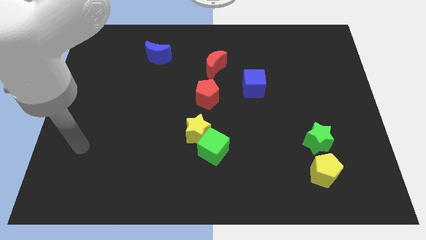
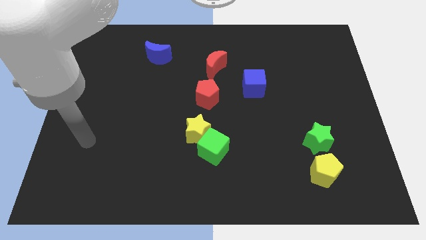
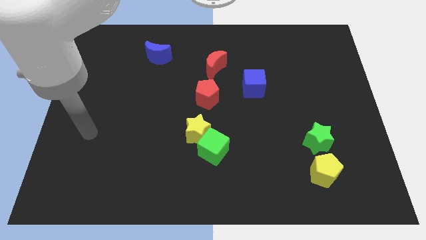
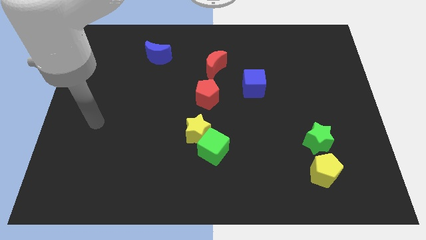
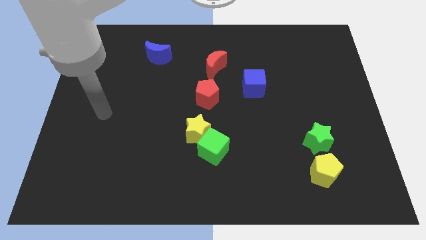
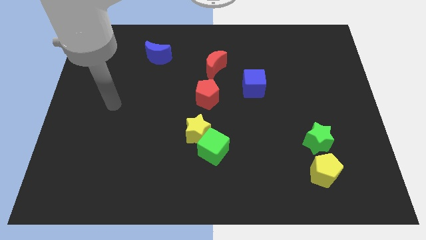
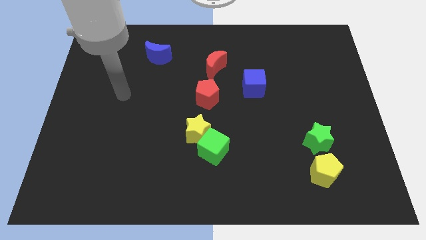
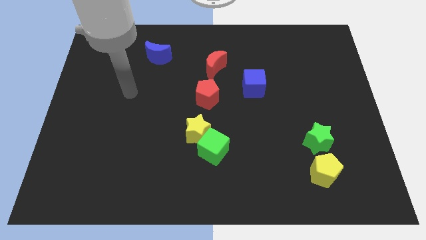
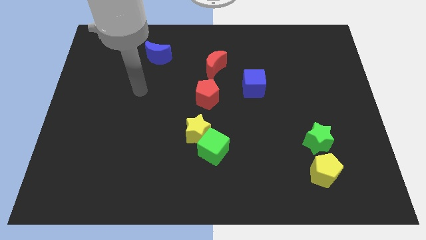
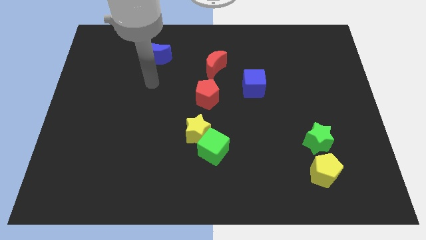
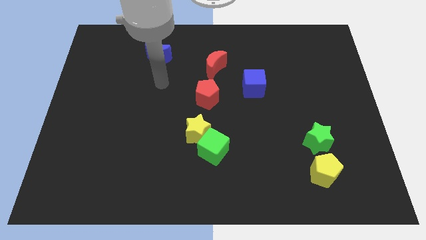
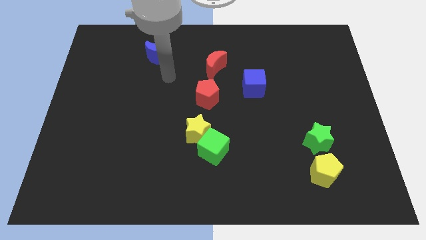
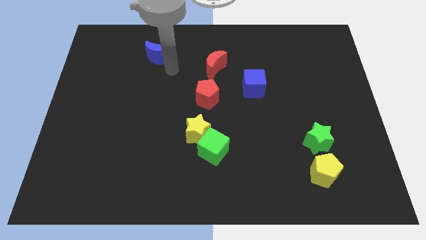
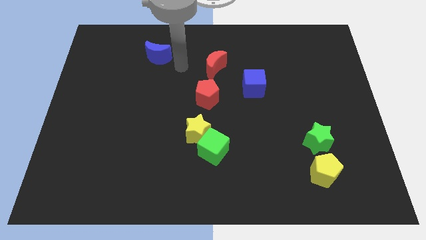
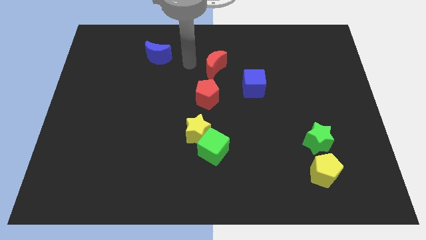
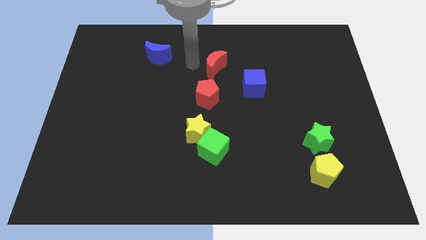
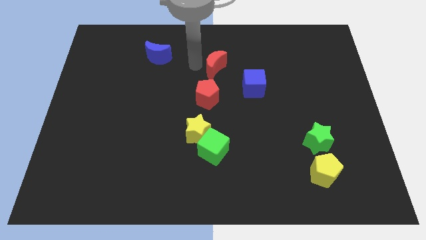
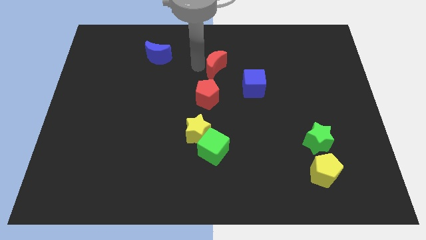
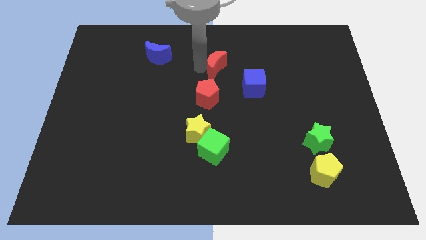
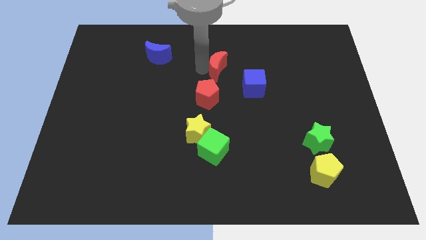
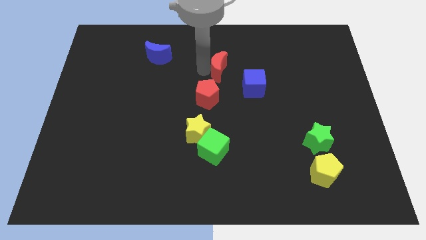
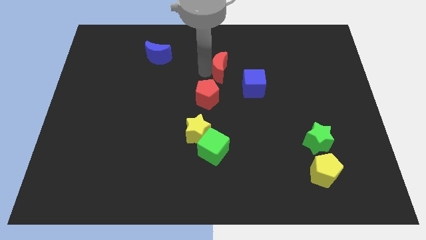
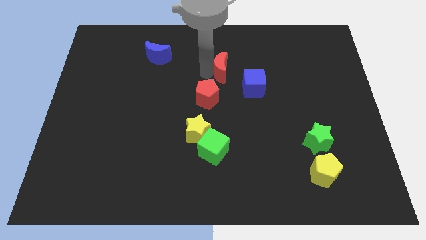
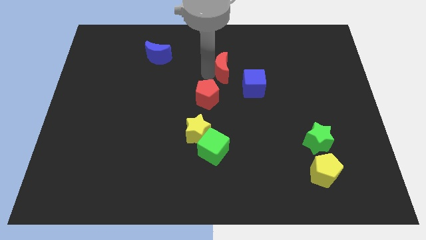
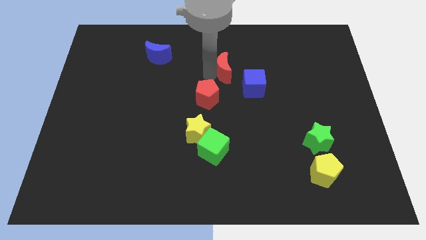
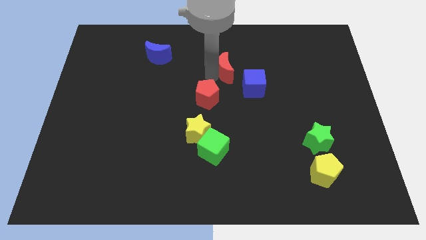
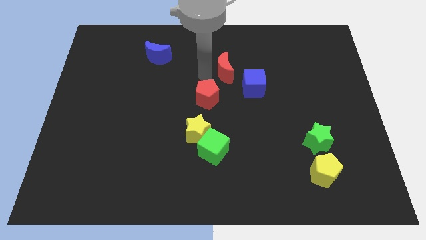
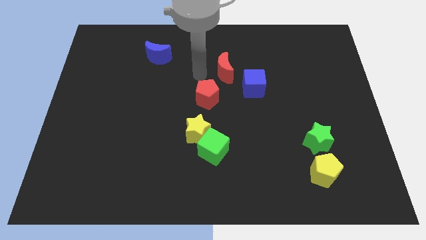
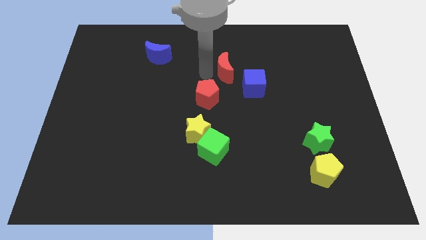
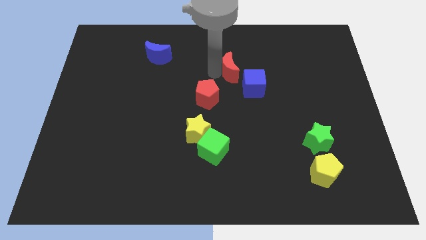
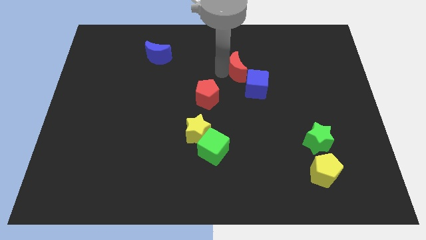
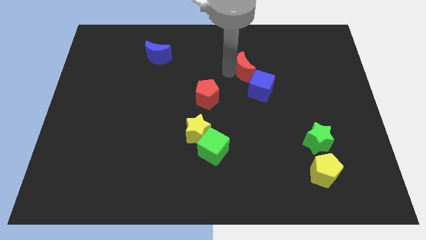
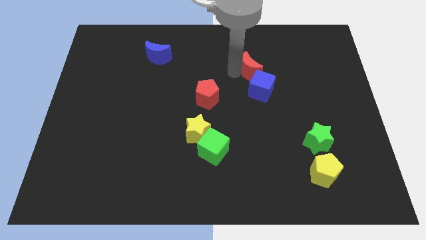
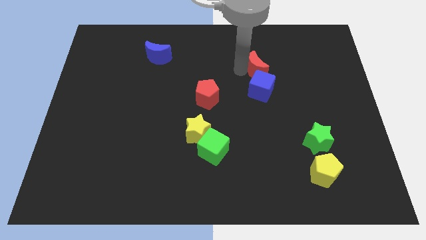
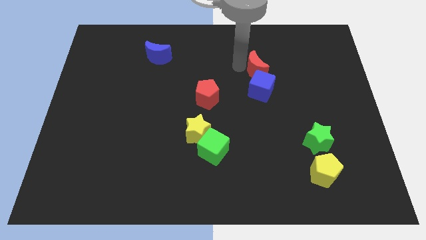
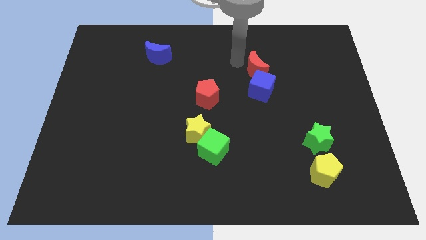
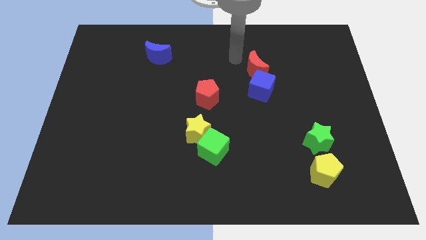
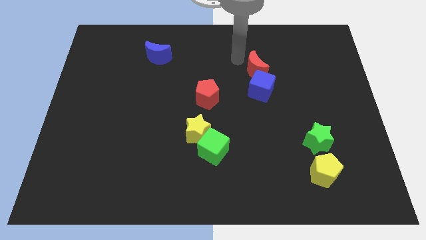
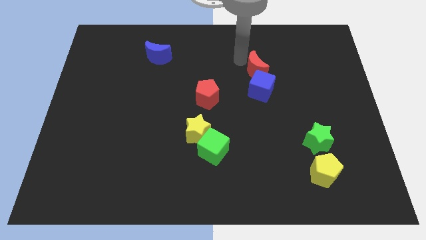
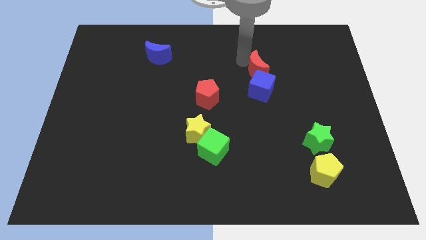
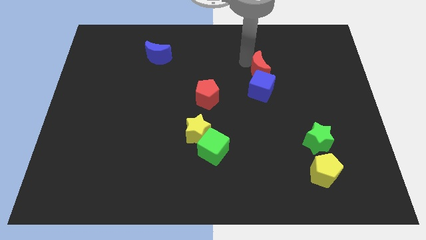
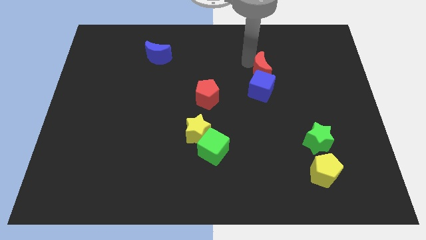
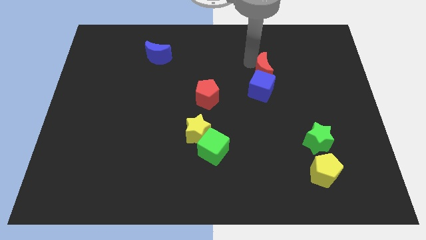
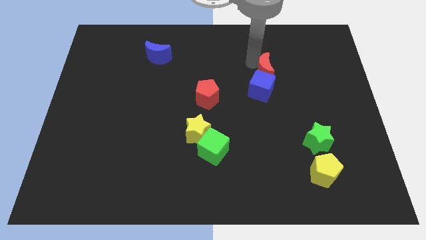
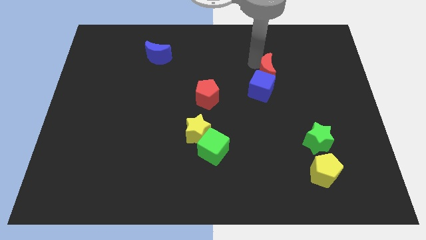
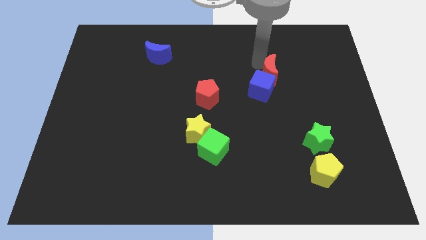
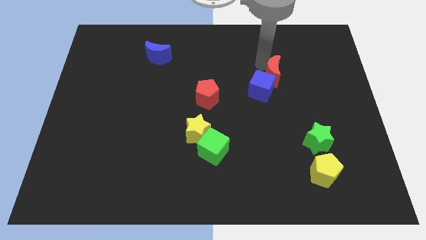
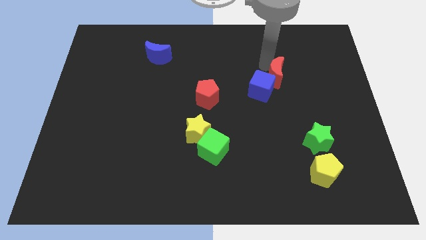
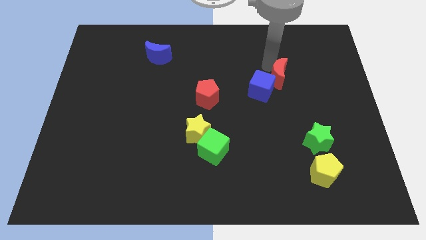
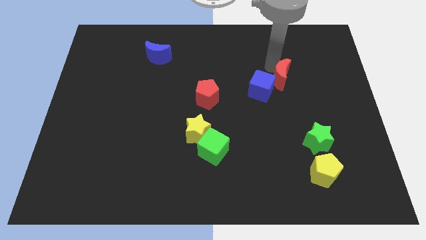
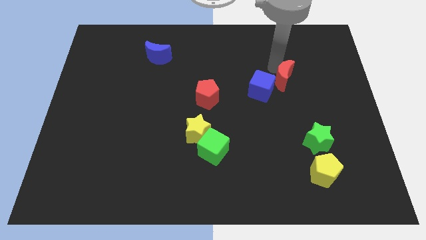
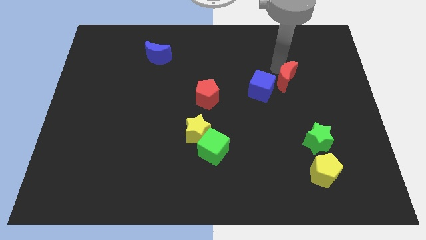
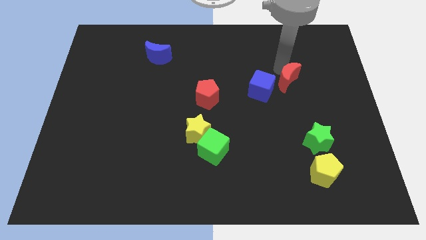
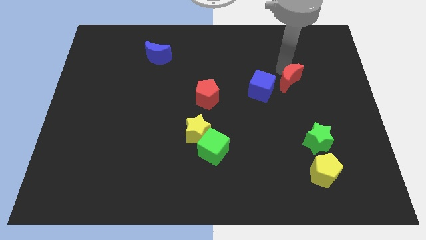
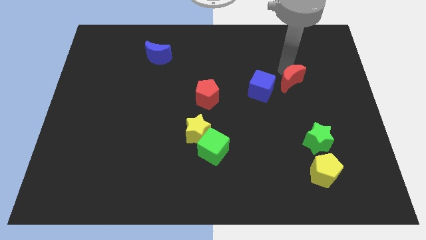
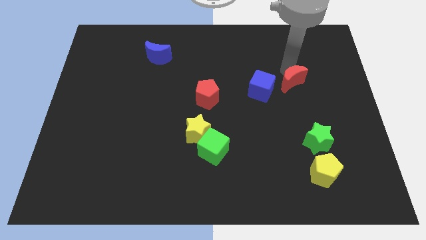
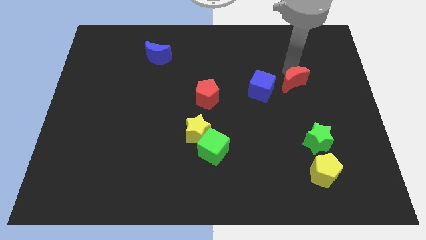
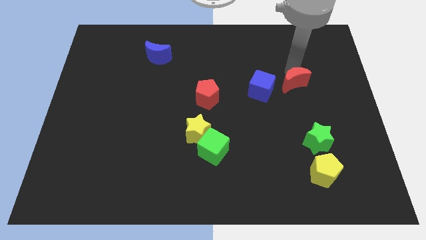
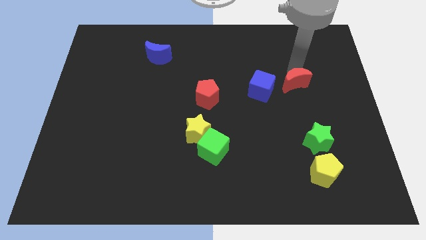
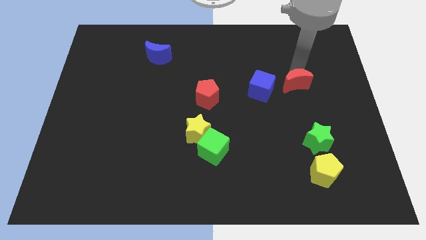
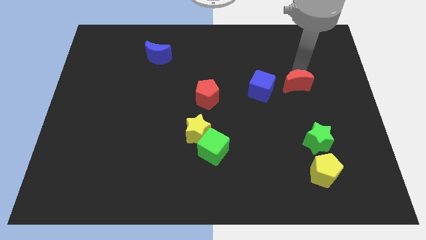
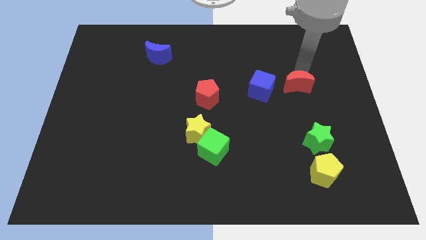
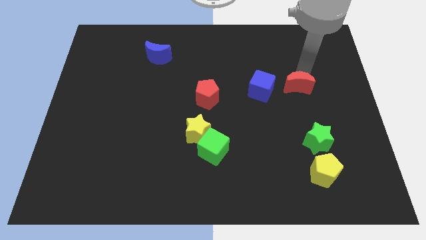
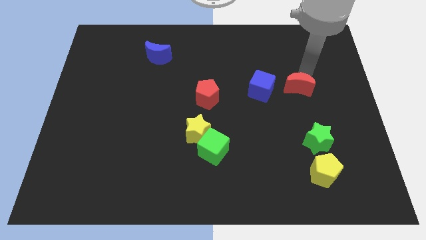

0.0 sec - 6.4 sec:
put the red moon above the green star

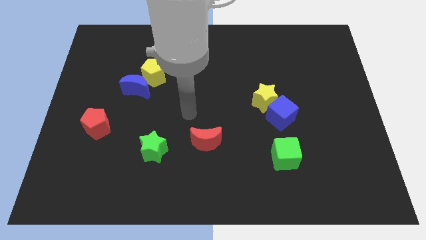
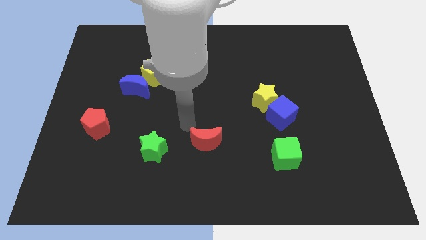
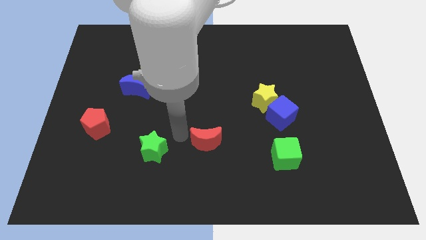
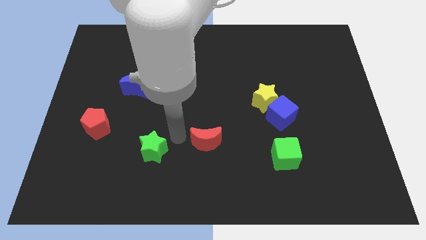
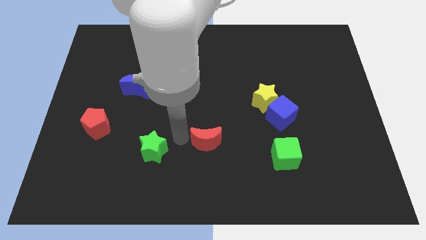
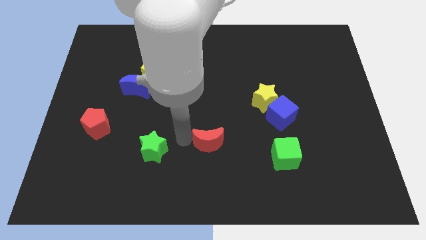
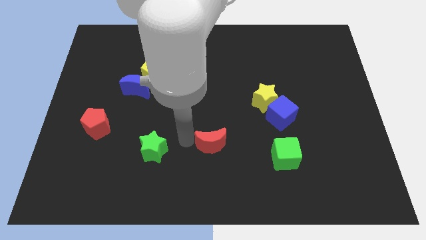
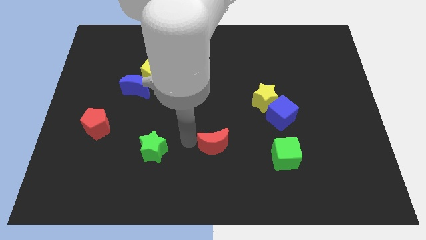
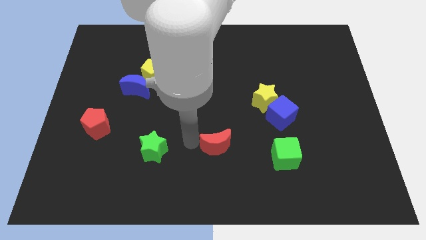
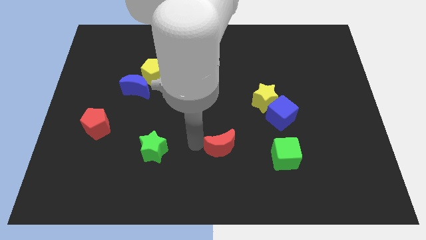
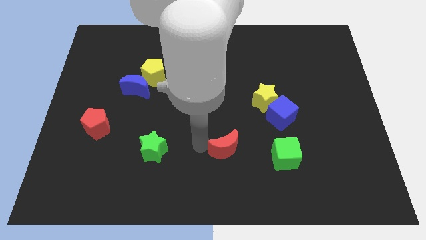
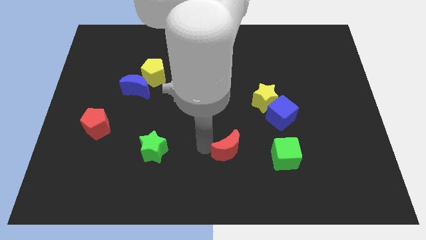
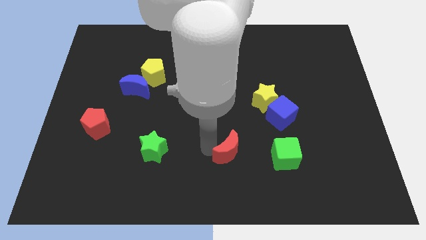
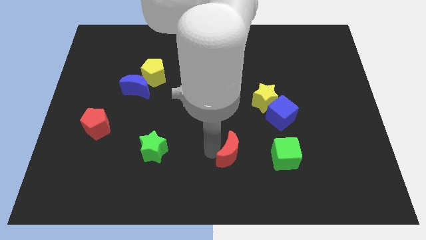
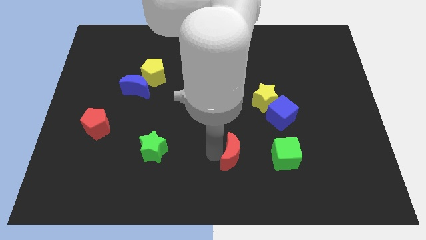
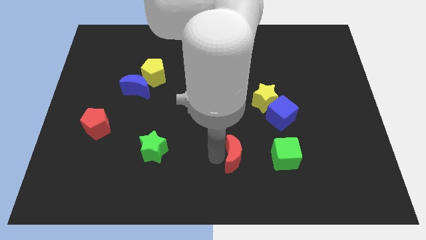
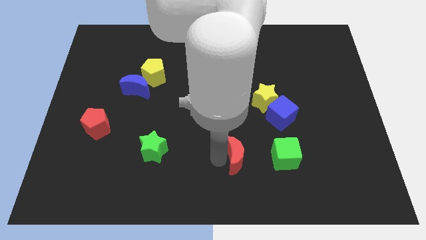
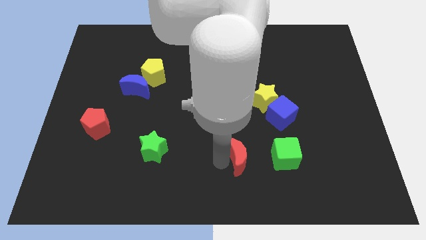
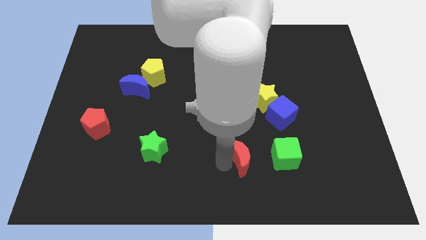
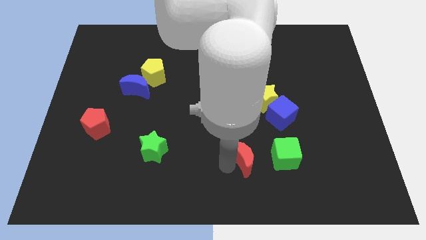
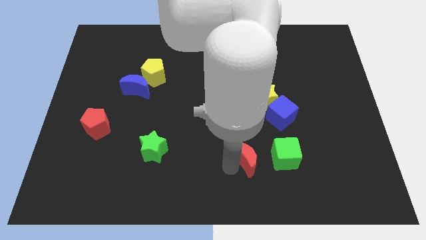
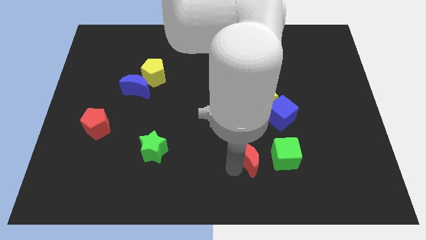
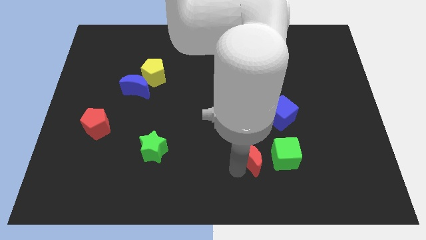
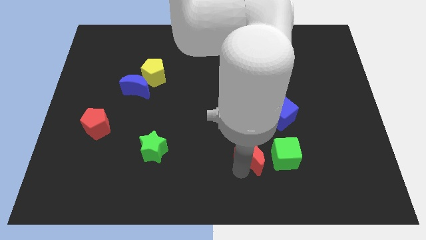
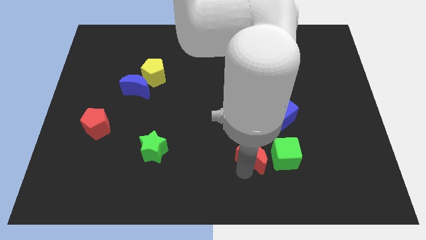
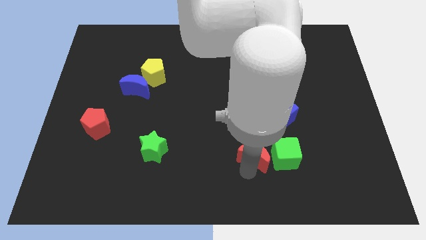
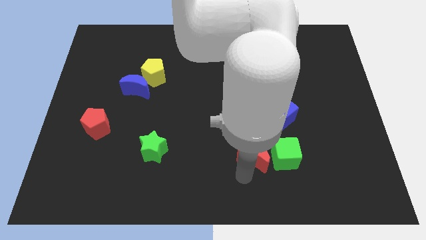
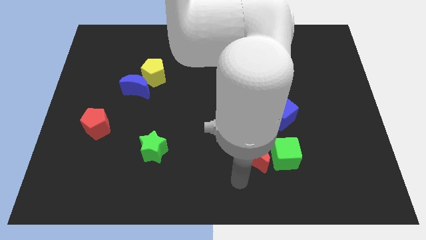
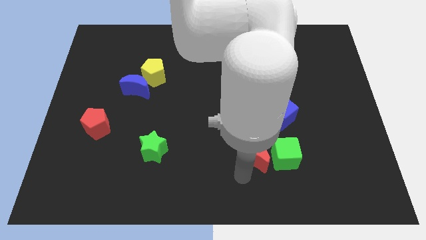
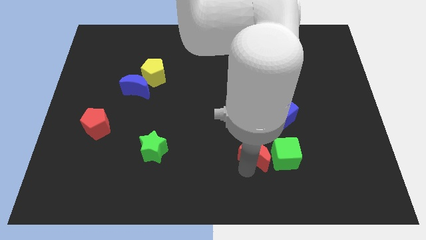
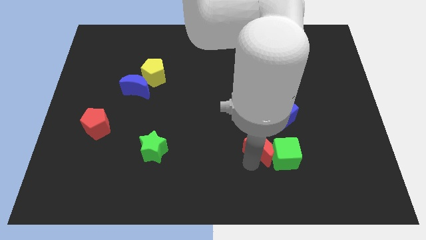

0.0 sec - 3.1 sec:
move the red moon to the bottom of the yellow star
